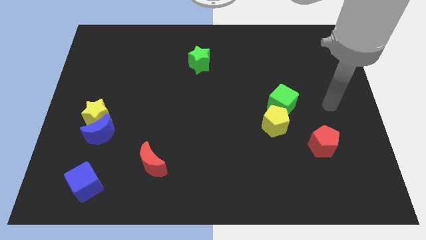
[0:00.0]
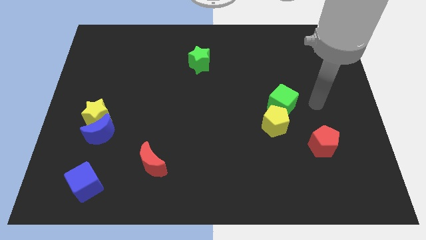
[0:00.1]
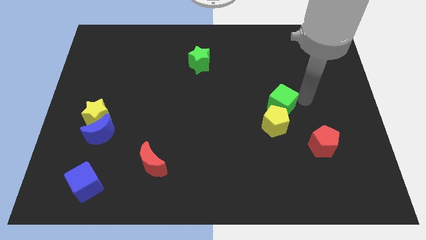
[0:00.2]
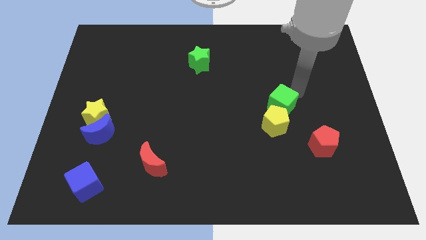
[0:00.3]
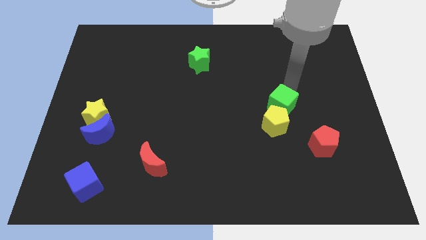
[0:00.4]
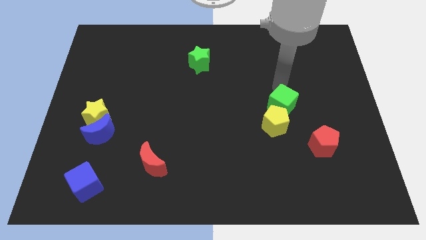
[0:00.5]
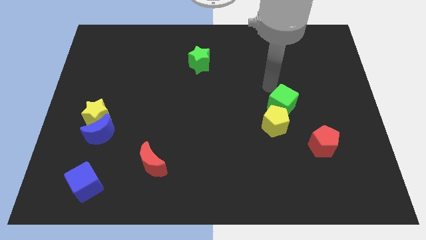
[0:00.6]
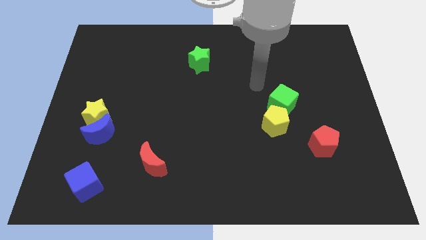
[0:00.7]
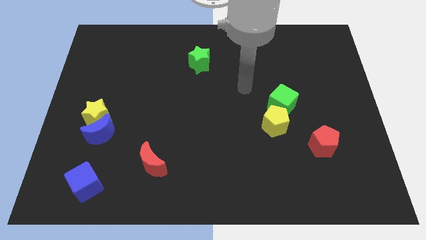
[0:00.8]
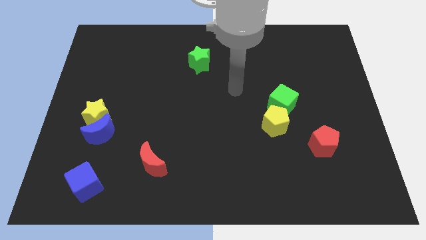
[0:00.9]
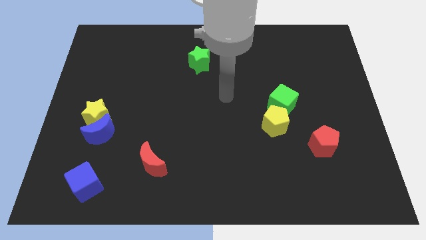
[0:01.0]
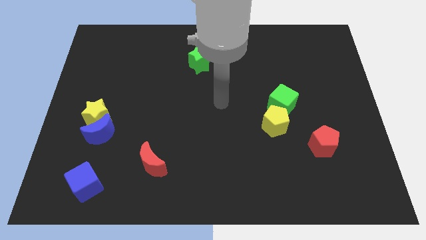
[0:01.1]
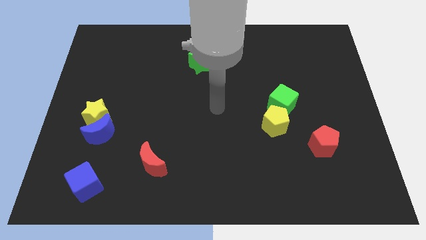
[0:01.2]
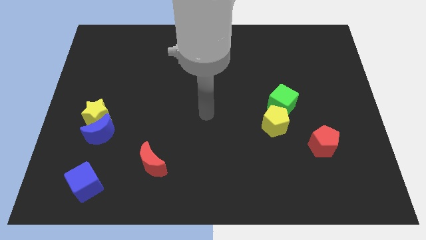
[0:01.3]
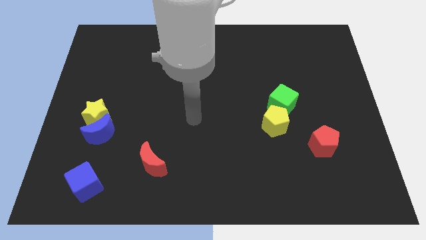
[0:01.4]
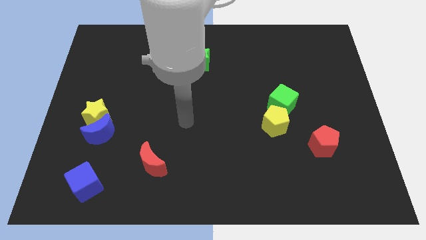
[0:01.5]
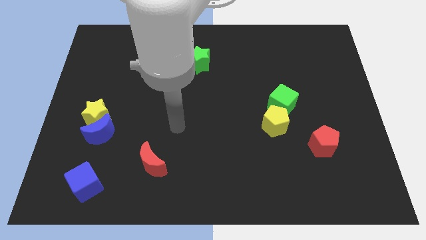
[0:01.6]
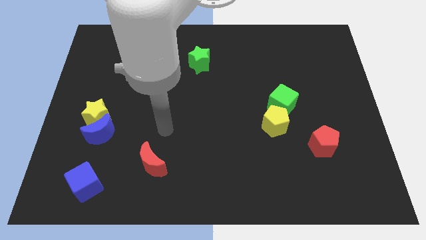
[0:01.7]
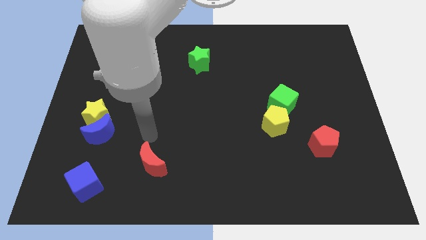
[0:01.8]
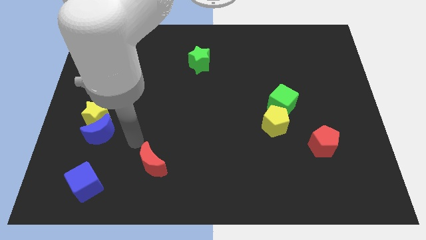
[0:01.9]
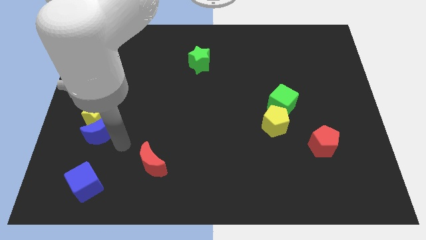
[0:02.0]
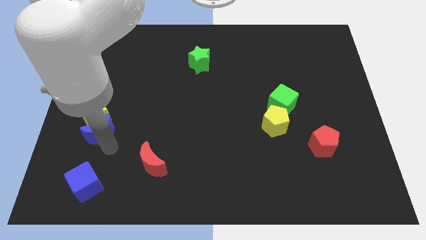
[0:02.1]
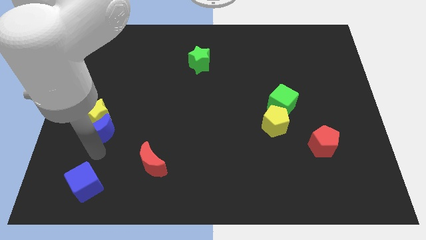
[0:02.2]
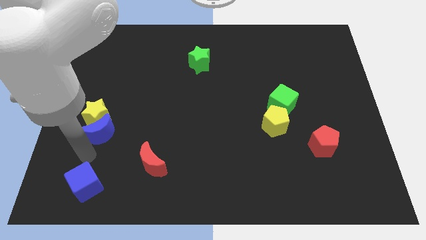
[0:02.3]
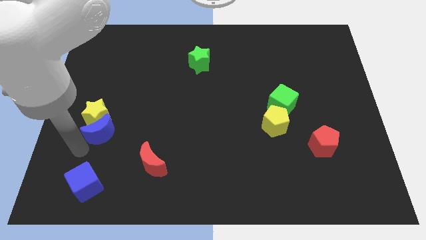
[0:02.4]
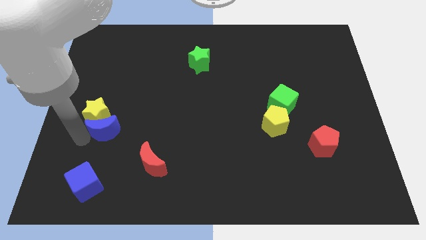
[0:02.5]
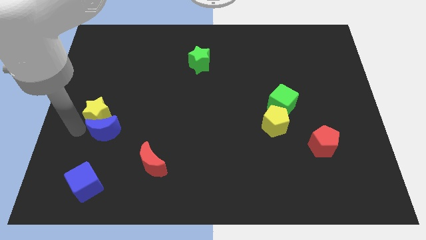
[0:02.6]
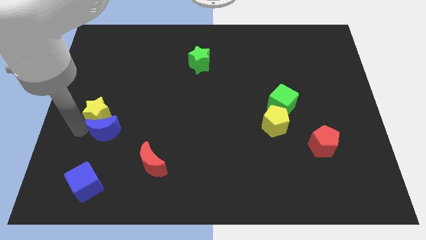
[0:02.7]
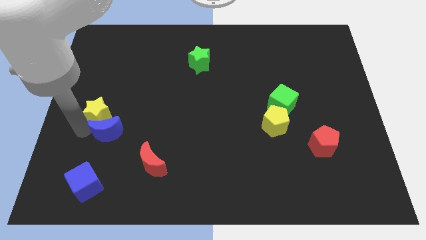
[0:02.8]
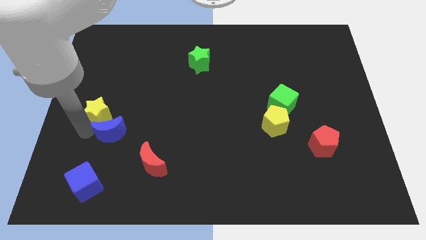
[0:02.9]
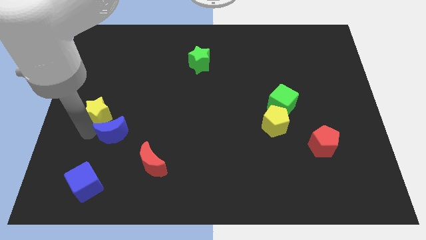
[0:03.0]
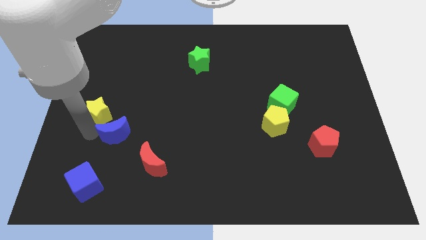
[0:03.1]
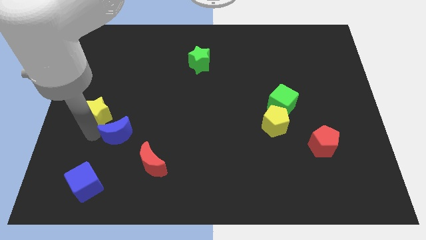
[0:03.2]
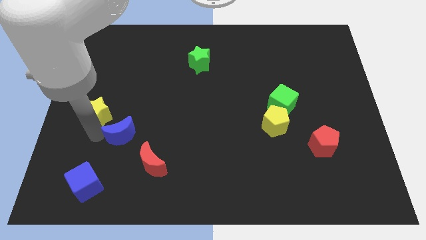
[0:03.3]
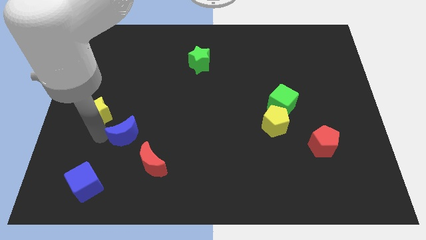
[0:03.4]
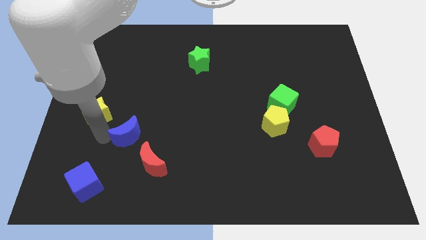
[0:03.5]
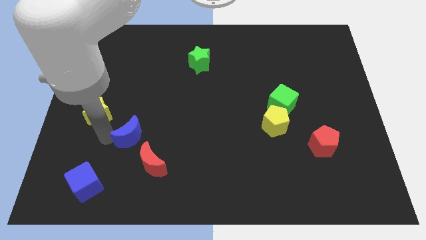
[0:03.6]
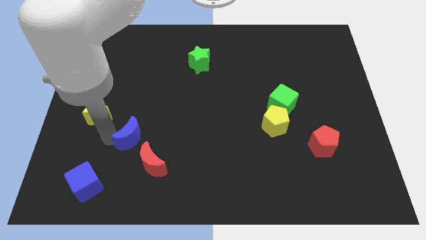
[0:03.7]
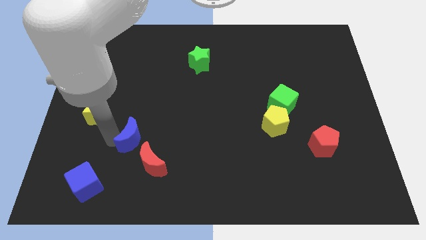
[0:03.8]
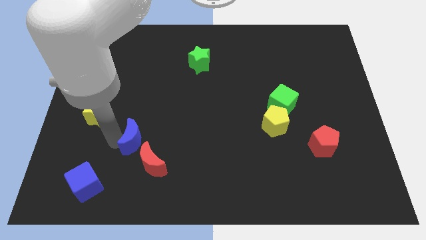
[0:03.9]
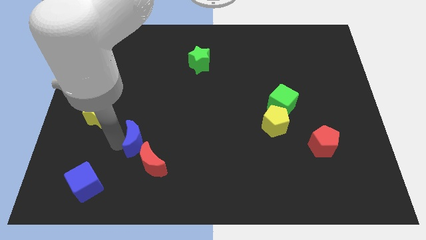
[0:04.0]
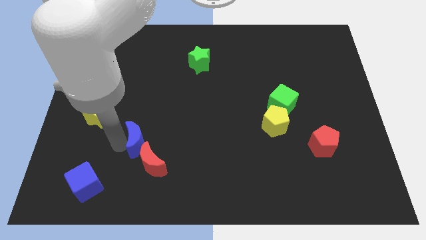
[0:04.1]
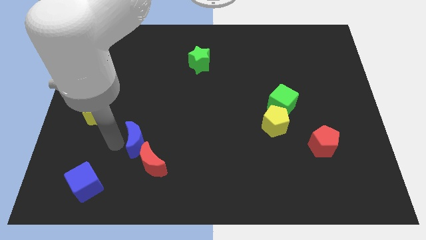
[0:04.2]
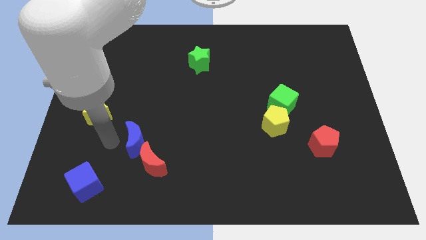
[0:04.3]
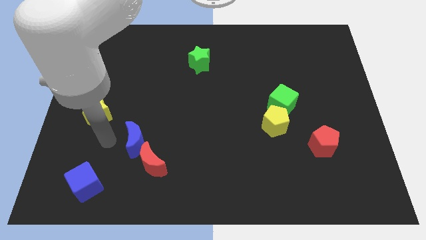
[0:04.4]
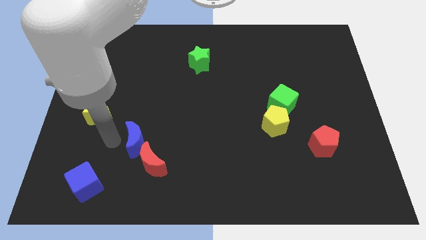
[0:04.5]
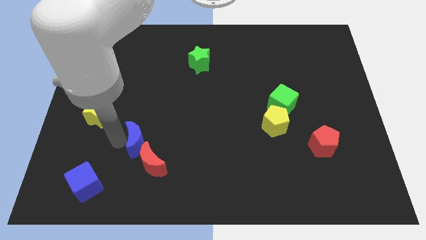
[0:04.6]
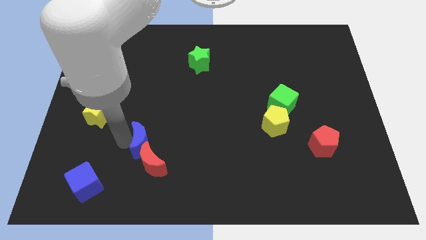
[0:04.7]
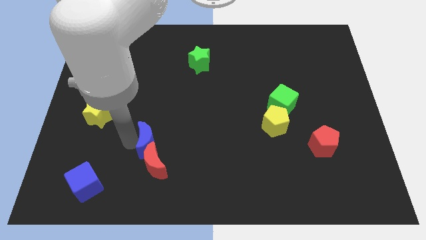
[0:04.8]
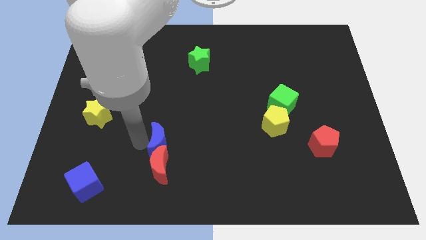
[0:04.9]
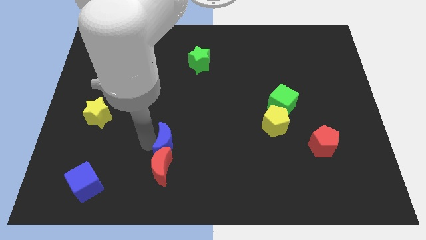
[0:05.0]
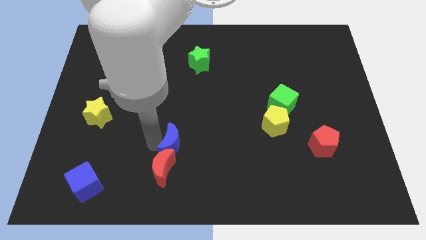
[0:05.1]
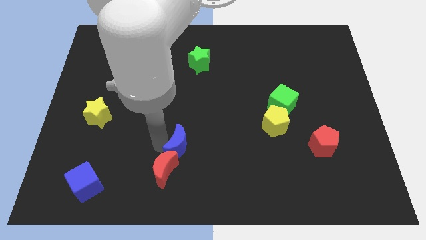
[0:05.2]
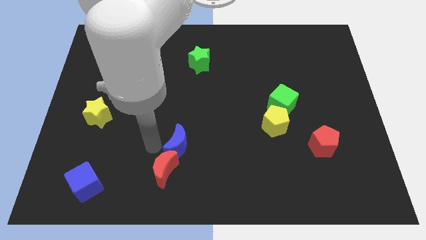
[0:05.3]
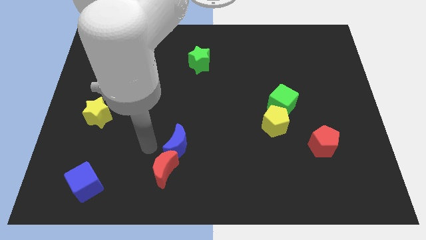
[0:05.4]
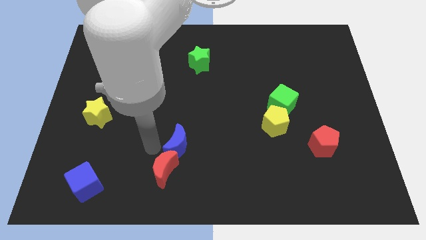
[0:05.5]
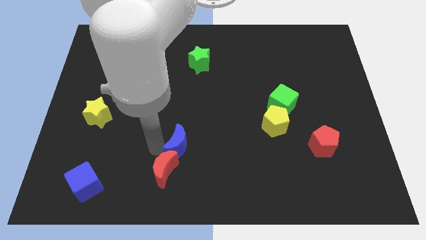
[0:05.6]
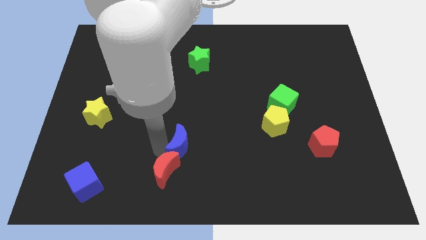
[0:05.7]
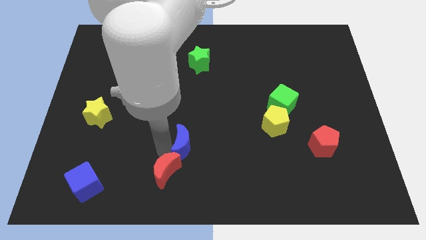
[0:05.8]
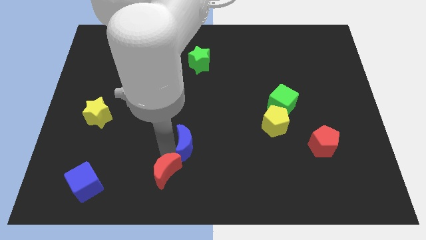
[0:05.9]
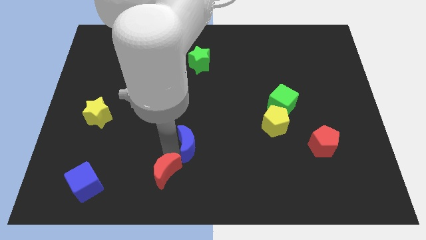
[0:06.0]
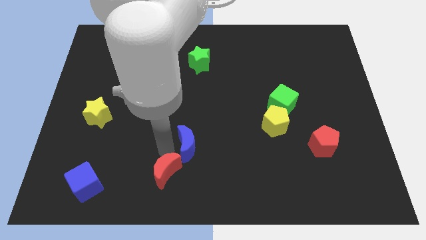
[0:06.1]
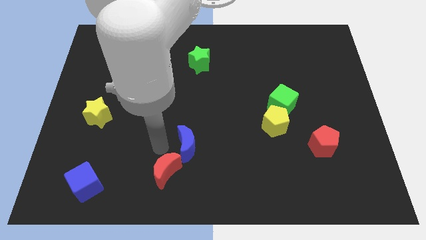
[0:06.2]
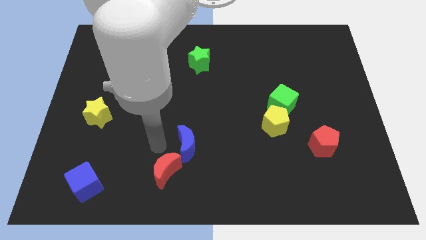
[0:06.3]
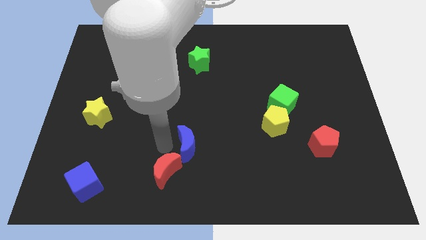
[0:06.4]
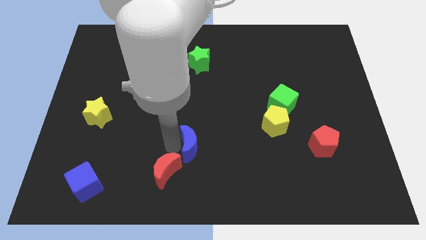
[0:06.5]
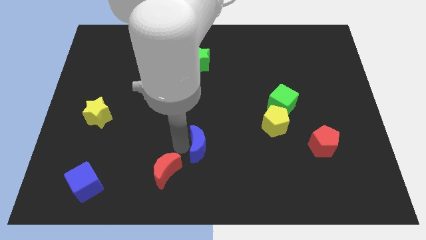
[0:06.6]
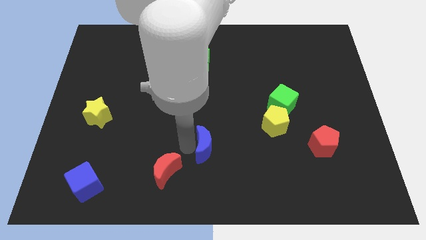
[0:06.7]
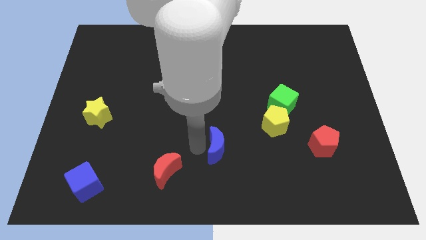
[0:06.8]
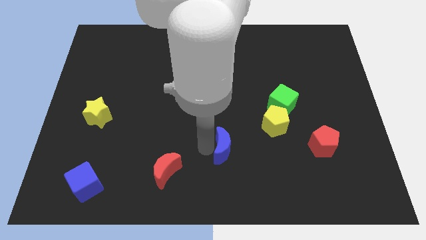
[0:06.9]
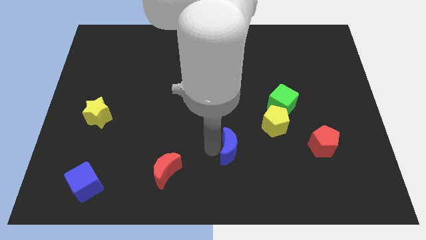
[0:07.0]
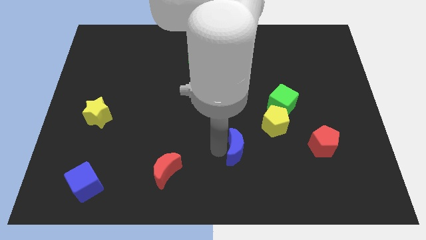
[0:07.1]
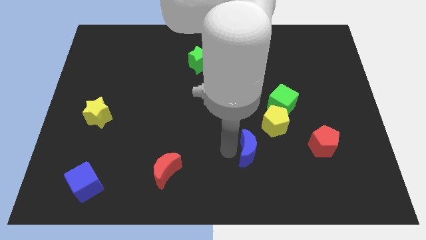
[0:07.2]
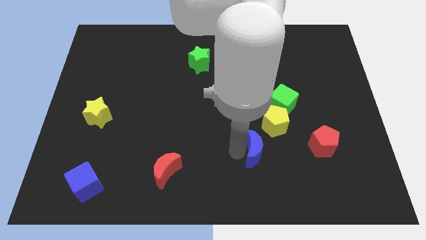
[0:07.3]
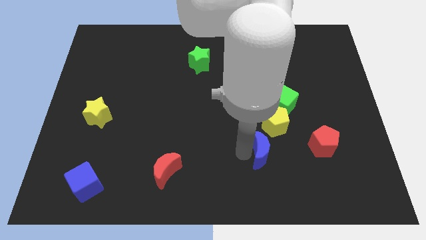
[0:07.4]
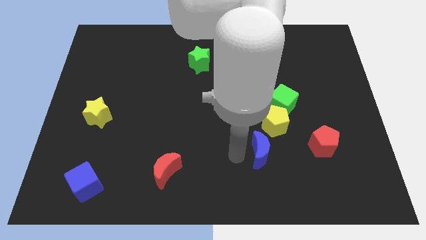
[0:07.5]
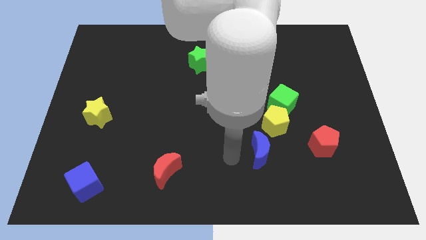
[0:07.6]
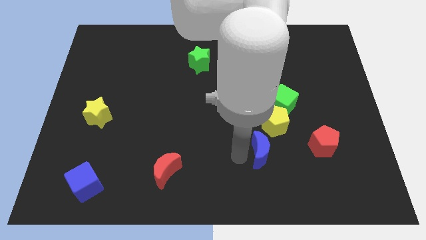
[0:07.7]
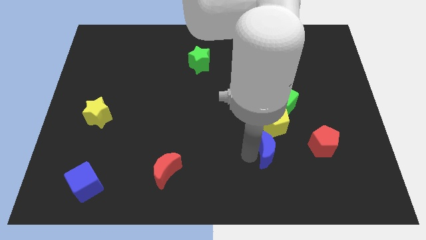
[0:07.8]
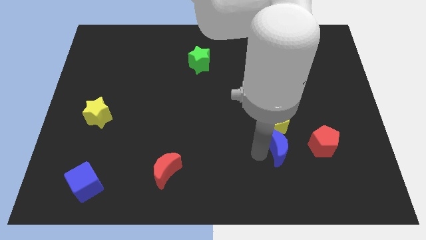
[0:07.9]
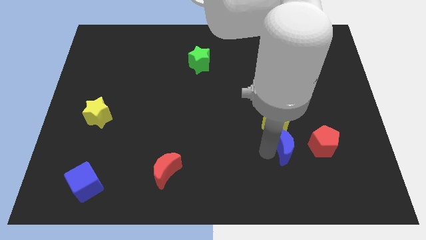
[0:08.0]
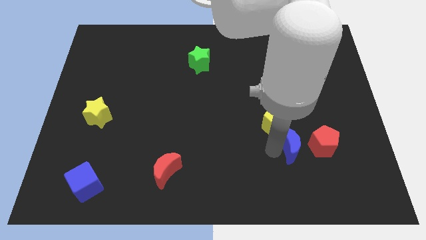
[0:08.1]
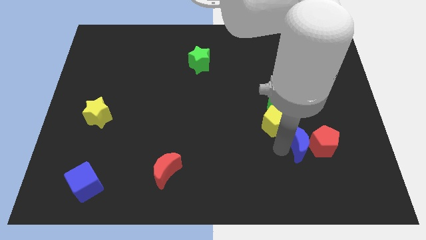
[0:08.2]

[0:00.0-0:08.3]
put the blue moon to the red pentagon
